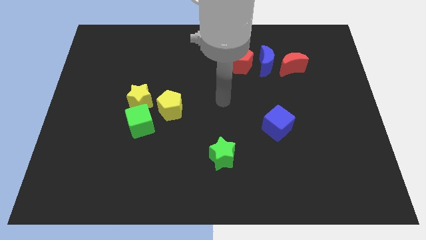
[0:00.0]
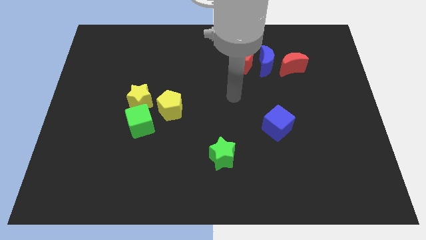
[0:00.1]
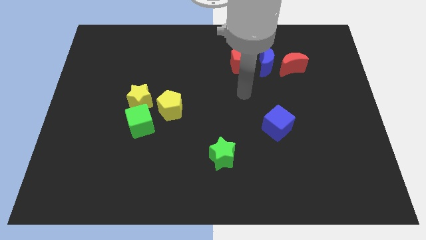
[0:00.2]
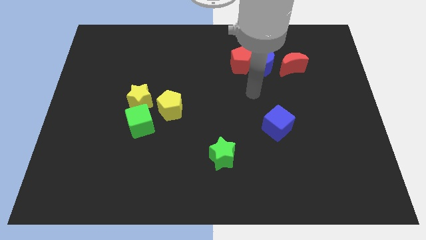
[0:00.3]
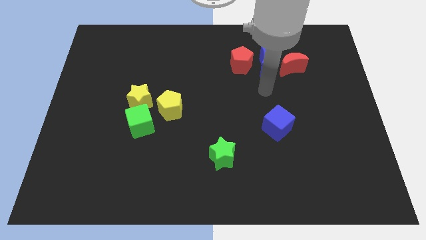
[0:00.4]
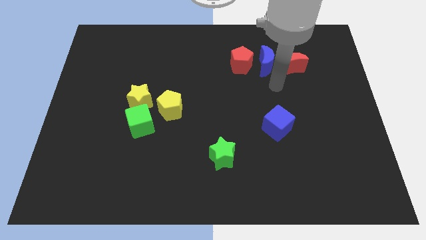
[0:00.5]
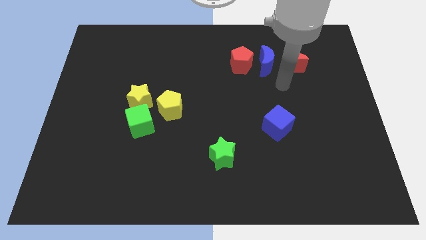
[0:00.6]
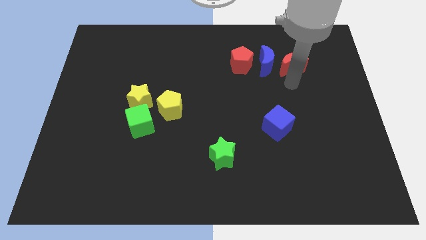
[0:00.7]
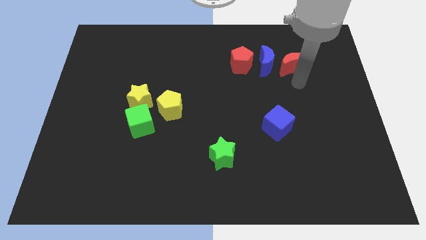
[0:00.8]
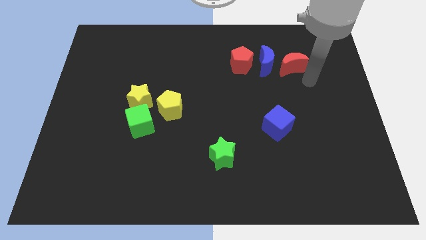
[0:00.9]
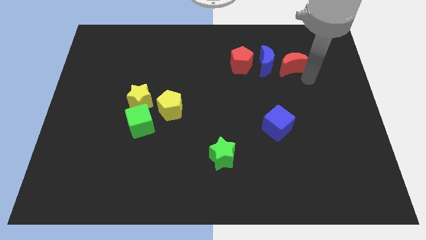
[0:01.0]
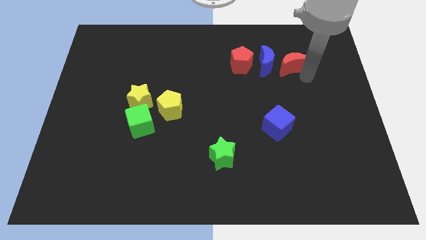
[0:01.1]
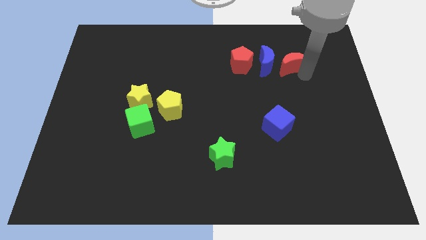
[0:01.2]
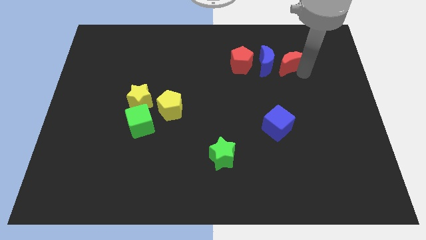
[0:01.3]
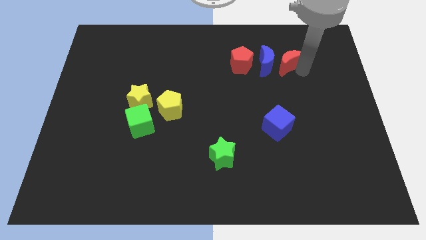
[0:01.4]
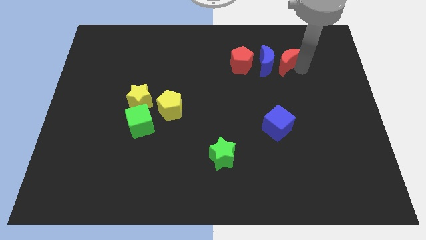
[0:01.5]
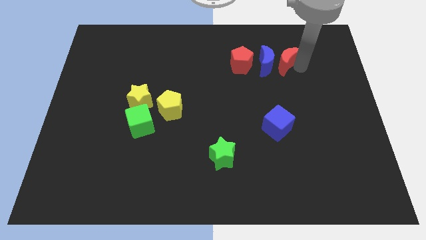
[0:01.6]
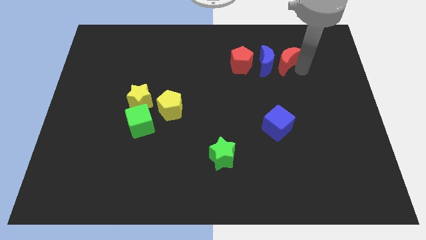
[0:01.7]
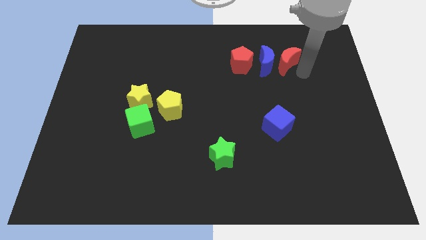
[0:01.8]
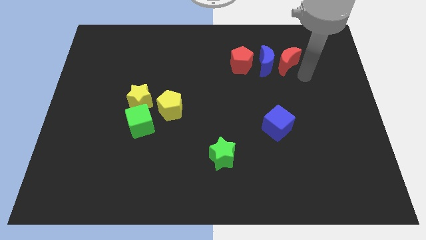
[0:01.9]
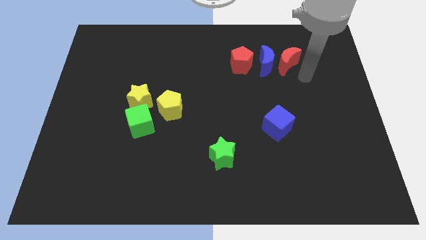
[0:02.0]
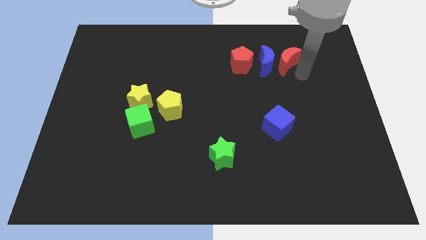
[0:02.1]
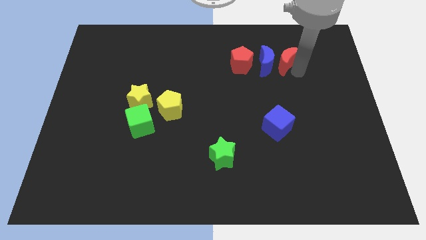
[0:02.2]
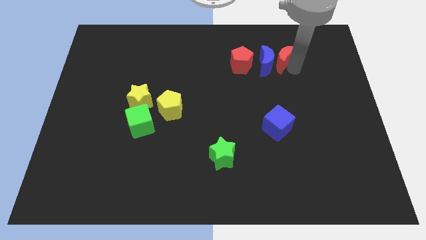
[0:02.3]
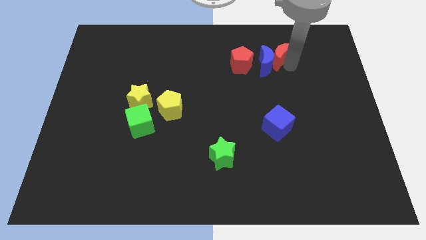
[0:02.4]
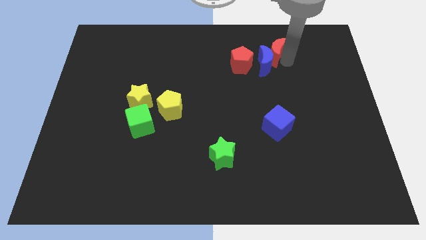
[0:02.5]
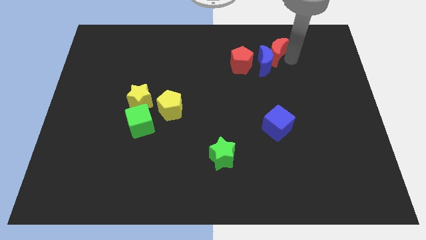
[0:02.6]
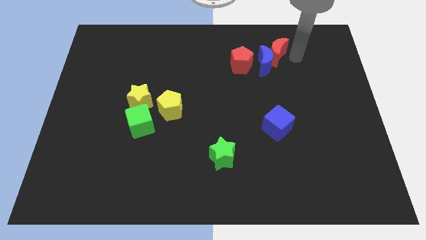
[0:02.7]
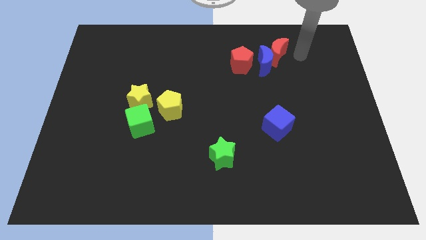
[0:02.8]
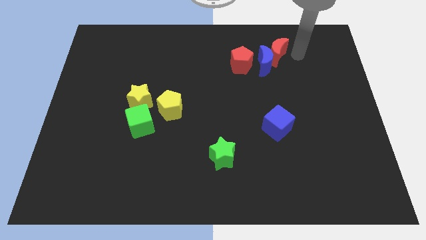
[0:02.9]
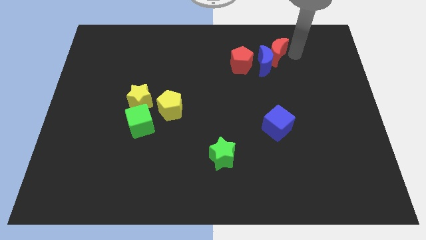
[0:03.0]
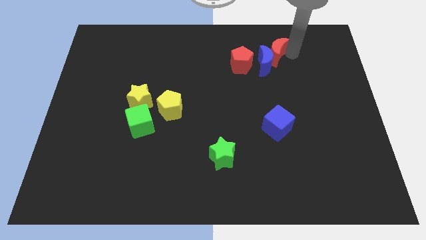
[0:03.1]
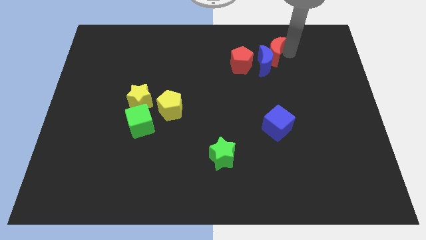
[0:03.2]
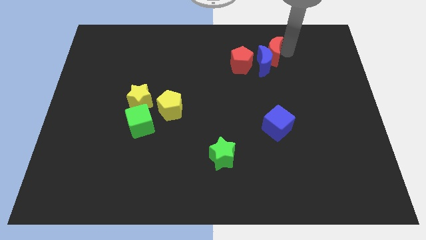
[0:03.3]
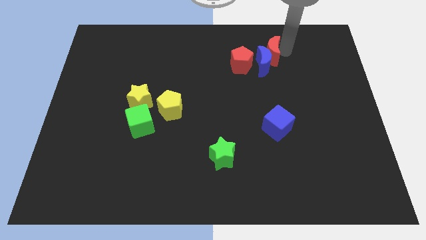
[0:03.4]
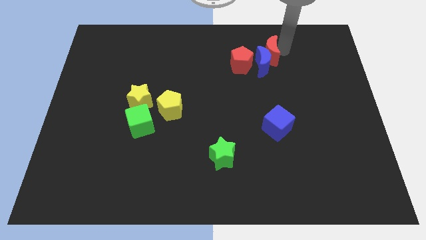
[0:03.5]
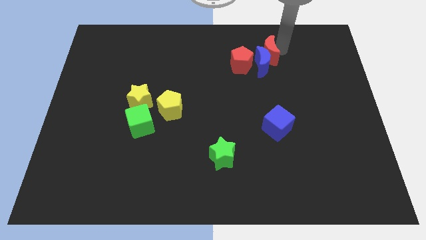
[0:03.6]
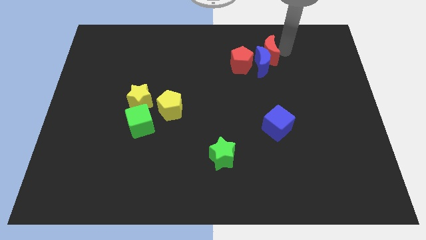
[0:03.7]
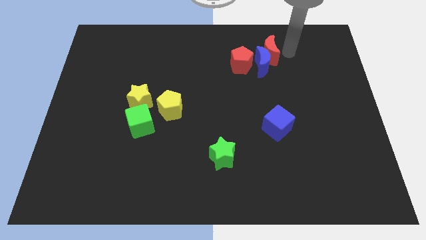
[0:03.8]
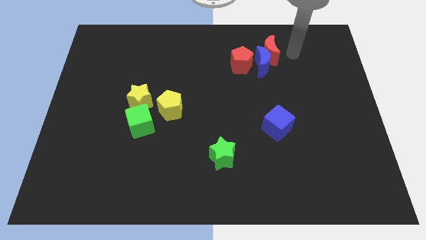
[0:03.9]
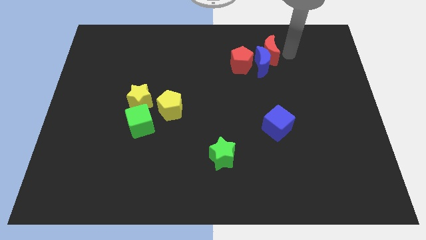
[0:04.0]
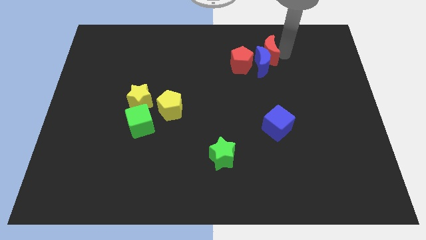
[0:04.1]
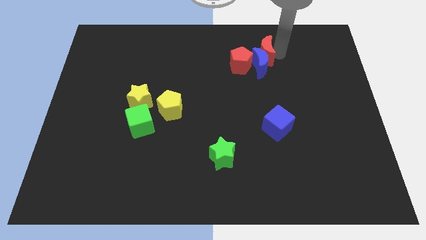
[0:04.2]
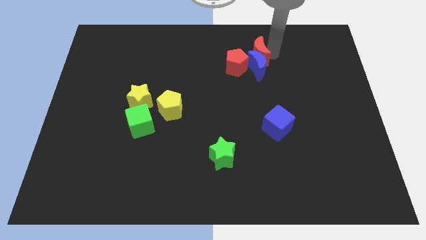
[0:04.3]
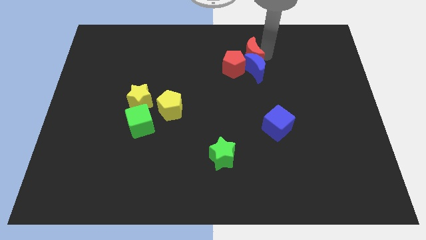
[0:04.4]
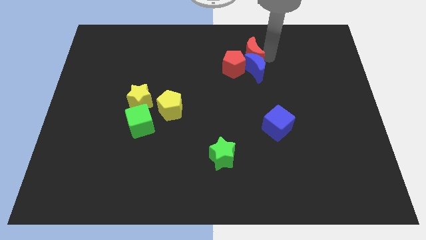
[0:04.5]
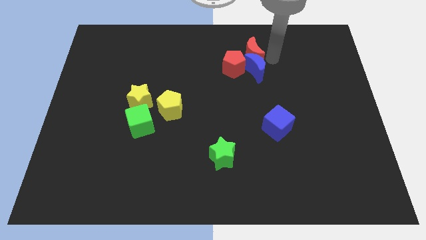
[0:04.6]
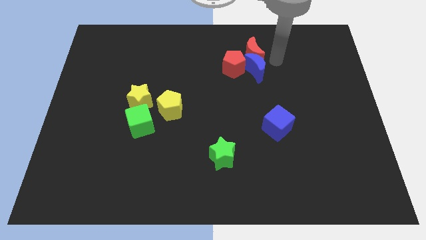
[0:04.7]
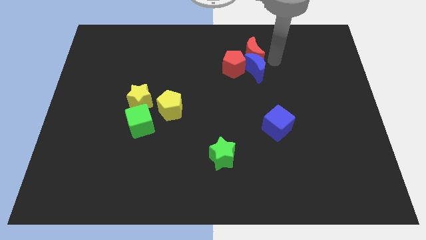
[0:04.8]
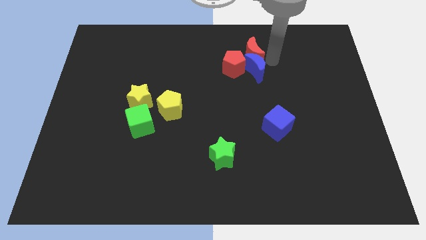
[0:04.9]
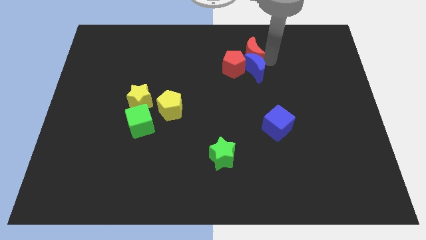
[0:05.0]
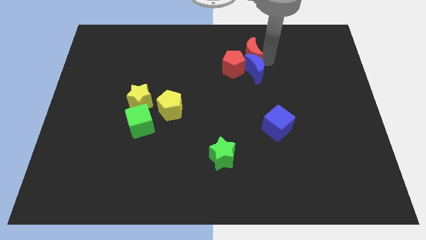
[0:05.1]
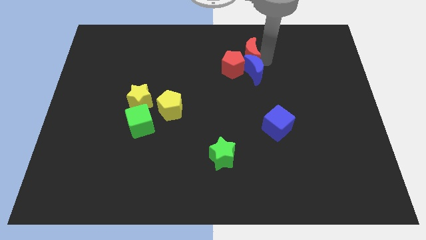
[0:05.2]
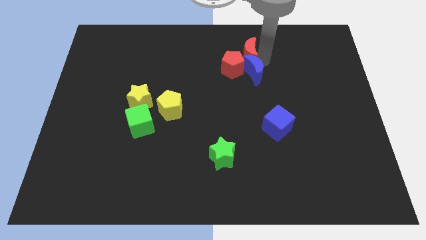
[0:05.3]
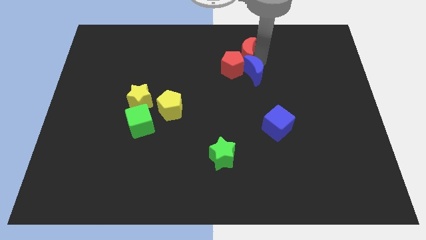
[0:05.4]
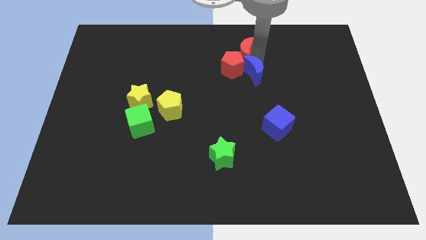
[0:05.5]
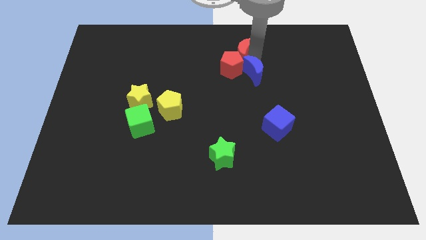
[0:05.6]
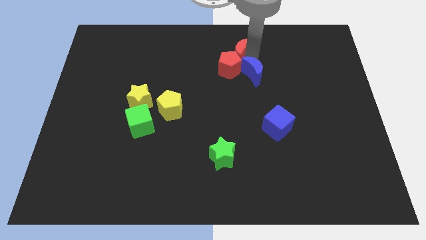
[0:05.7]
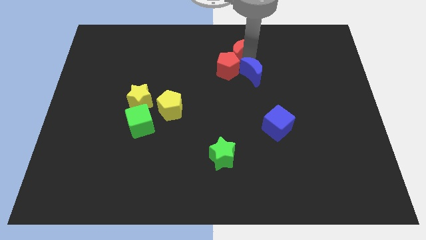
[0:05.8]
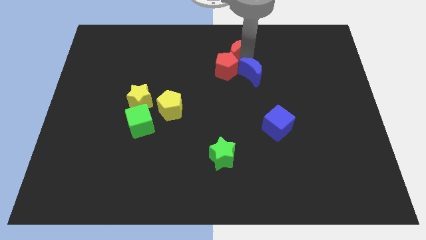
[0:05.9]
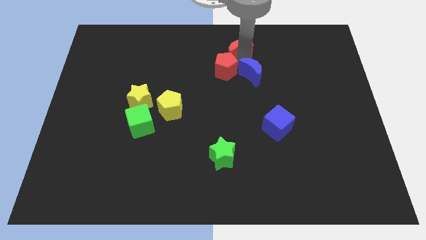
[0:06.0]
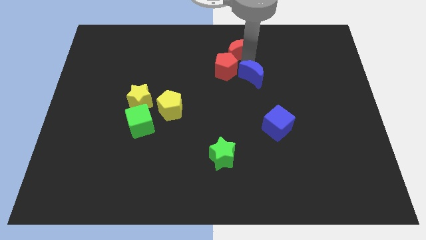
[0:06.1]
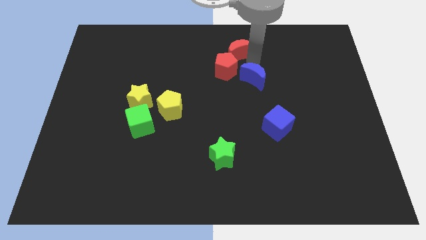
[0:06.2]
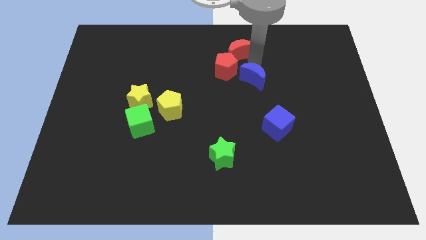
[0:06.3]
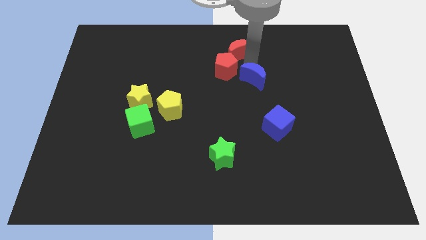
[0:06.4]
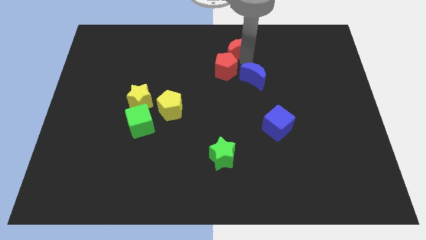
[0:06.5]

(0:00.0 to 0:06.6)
push the red moon to the top
